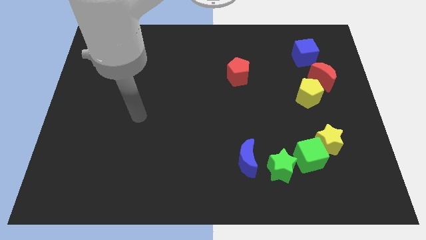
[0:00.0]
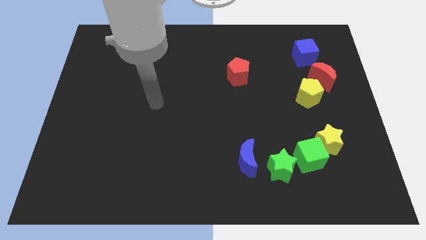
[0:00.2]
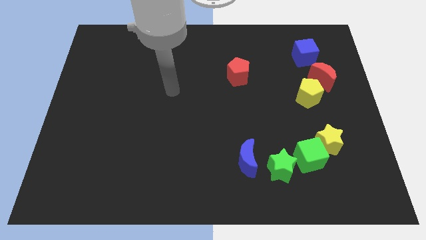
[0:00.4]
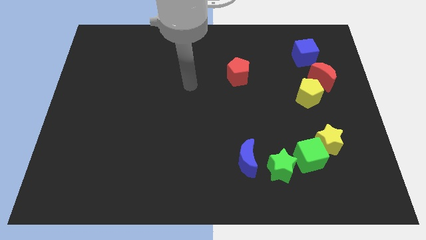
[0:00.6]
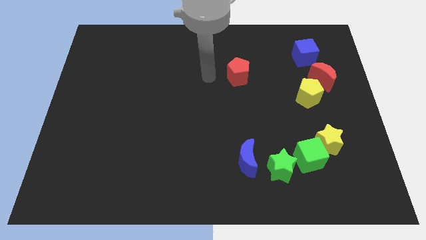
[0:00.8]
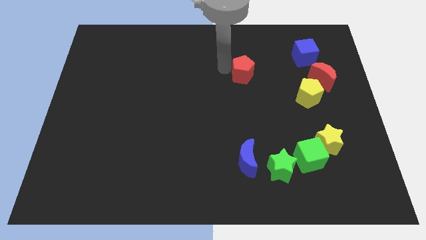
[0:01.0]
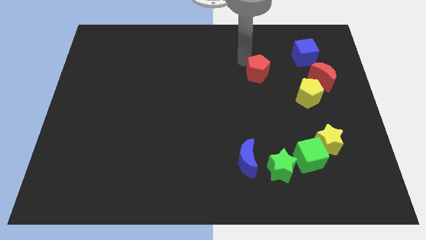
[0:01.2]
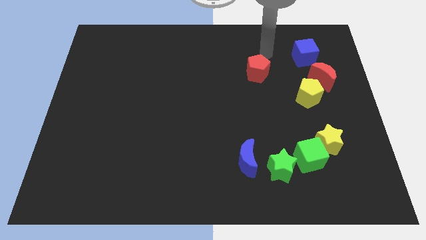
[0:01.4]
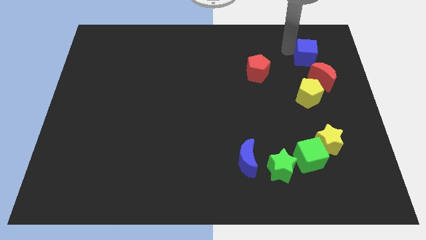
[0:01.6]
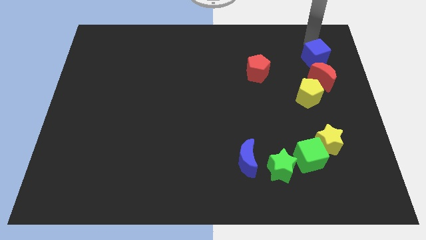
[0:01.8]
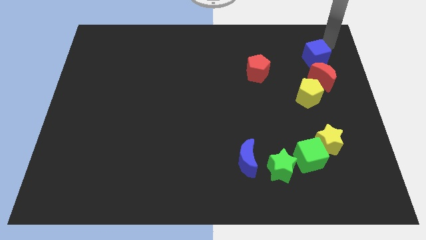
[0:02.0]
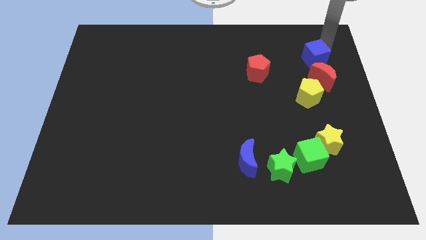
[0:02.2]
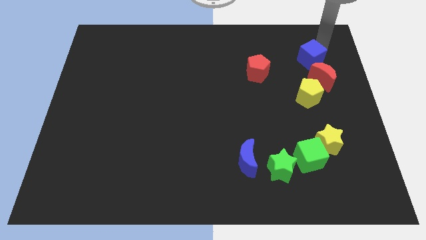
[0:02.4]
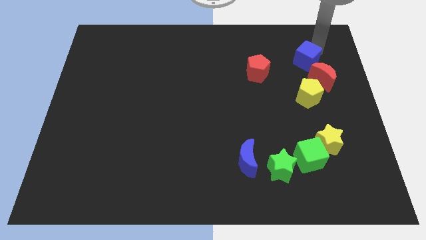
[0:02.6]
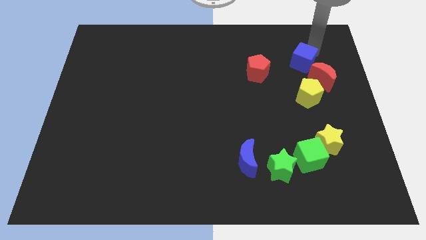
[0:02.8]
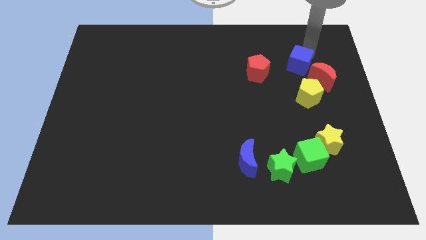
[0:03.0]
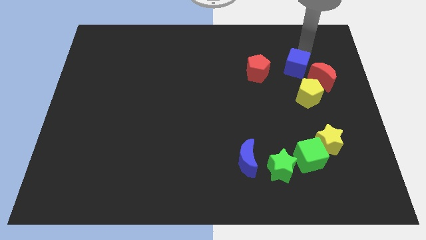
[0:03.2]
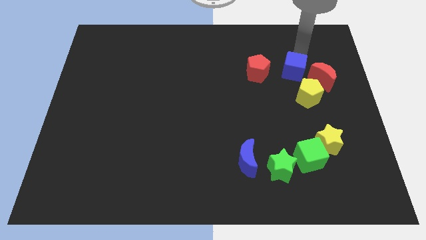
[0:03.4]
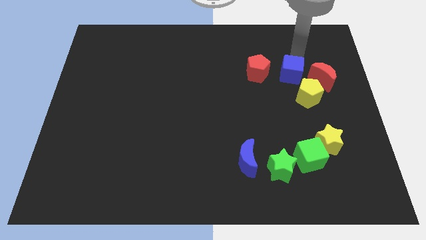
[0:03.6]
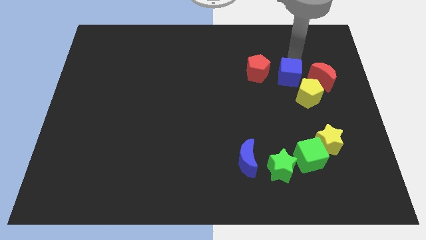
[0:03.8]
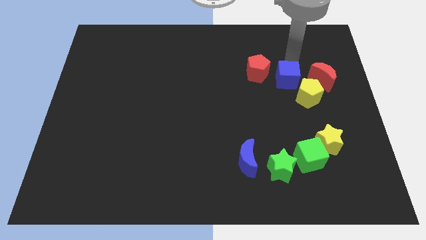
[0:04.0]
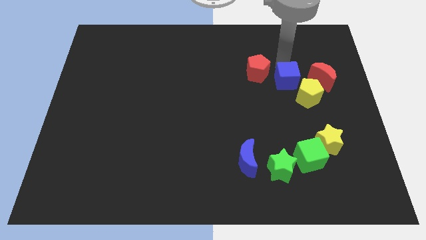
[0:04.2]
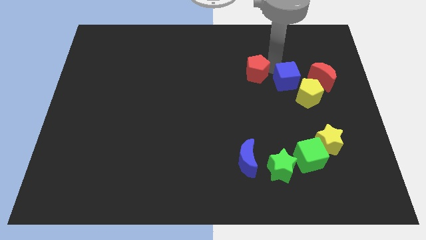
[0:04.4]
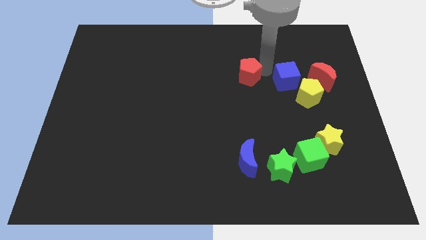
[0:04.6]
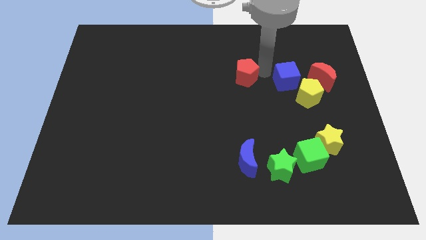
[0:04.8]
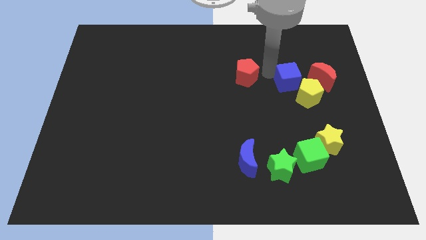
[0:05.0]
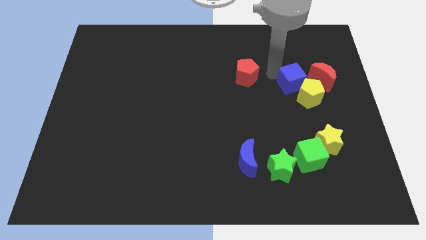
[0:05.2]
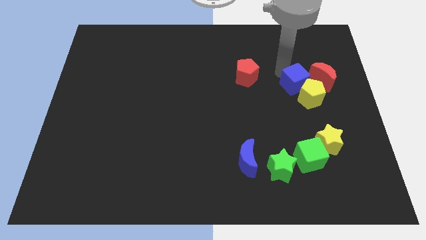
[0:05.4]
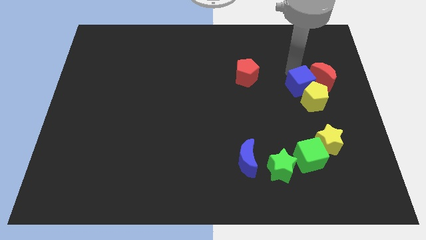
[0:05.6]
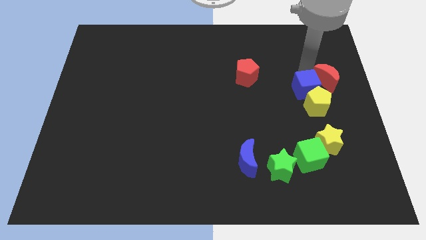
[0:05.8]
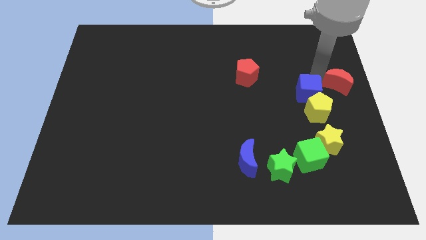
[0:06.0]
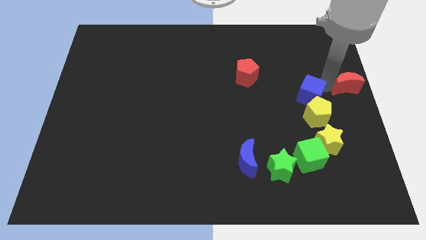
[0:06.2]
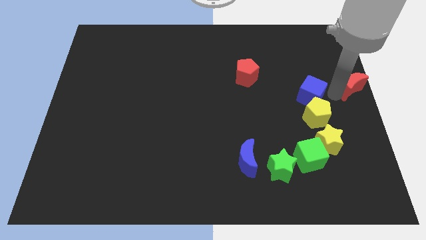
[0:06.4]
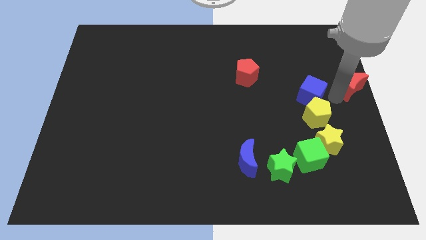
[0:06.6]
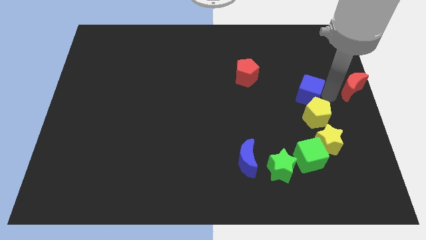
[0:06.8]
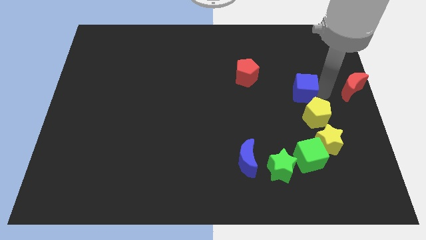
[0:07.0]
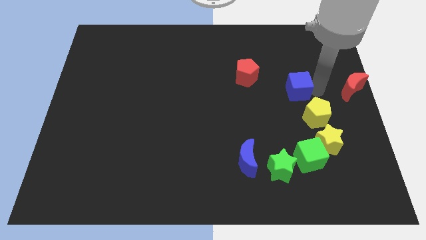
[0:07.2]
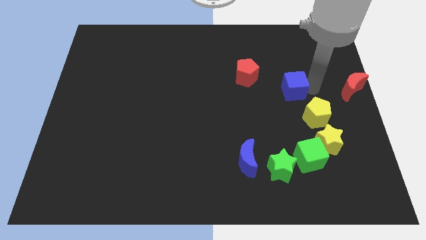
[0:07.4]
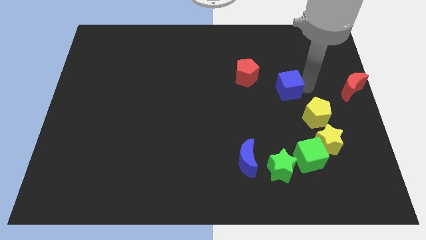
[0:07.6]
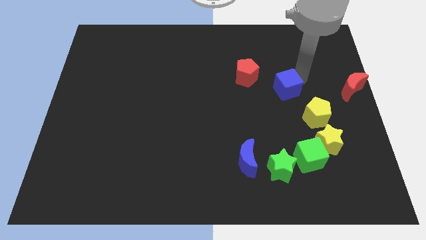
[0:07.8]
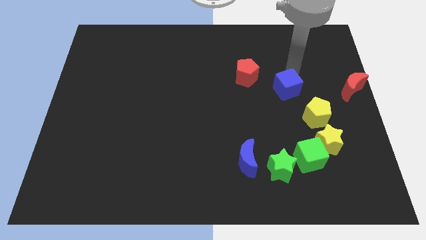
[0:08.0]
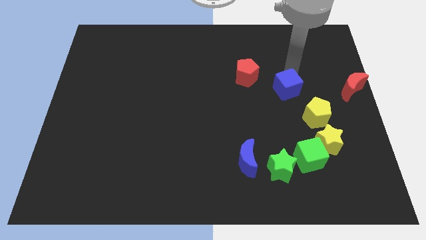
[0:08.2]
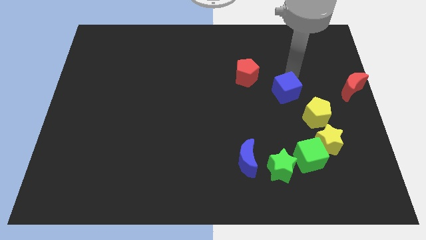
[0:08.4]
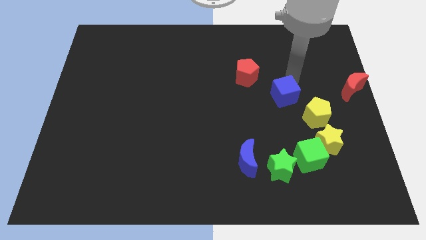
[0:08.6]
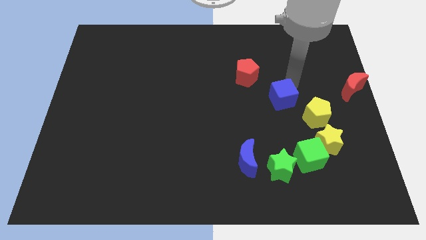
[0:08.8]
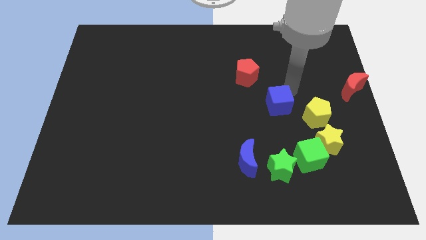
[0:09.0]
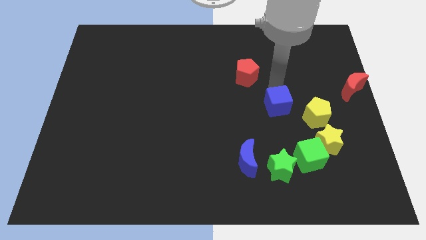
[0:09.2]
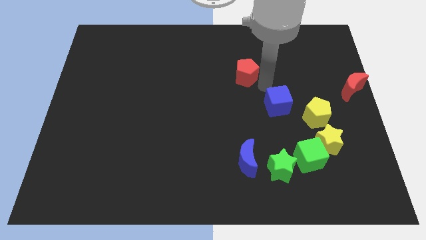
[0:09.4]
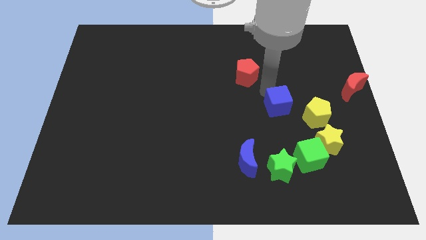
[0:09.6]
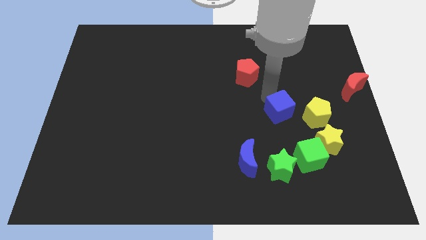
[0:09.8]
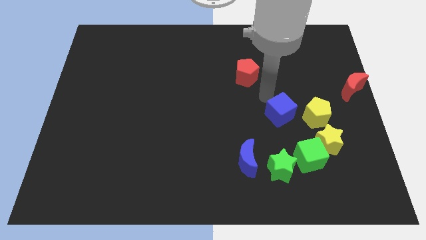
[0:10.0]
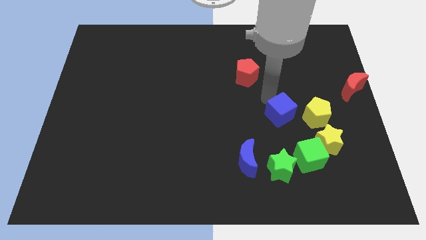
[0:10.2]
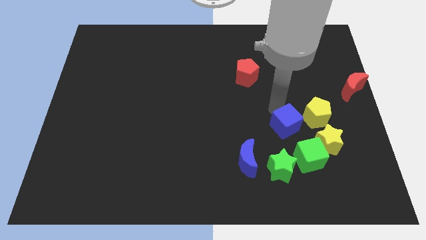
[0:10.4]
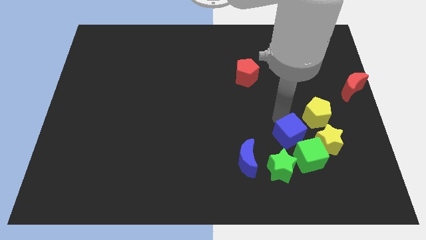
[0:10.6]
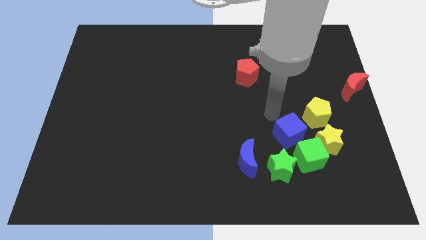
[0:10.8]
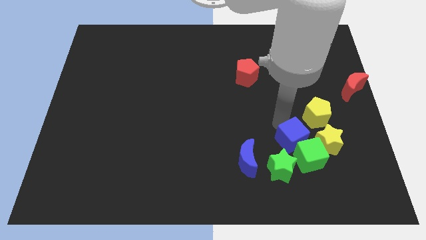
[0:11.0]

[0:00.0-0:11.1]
slide the blue cube close to the green cube

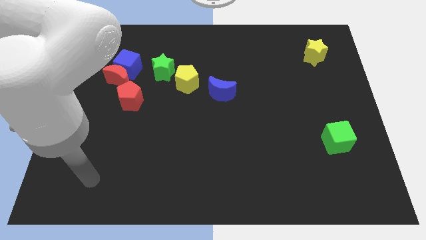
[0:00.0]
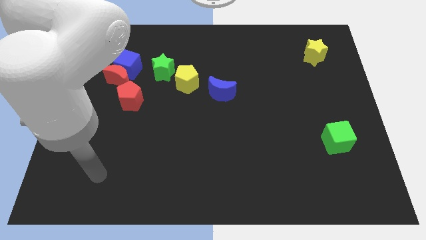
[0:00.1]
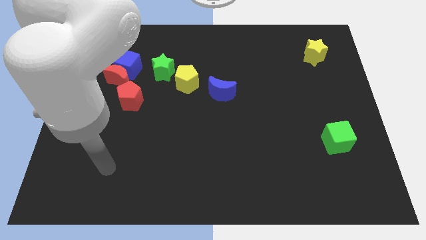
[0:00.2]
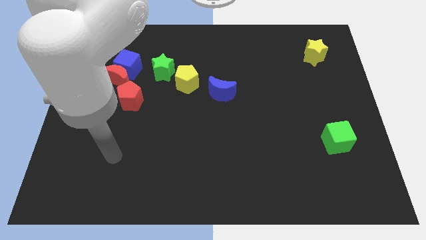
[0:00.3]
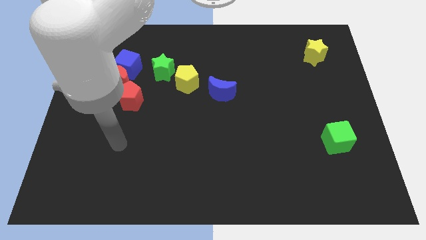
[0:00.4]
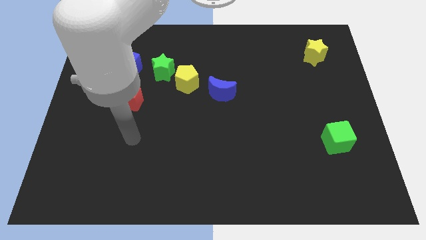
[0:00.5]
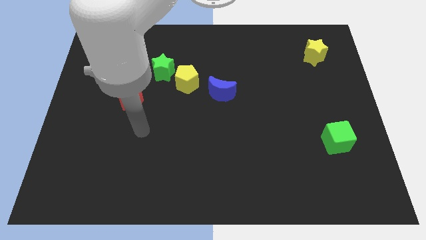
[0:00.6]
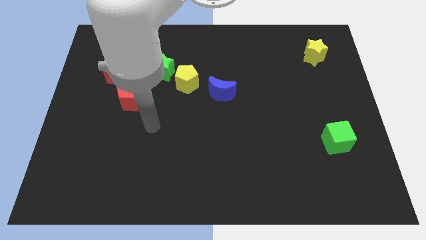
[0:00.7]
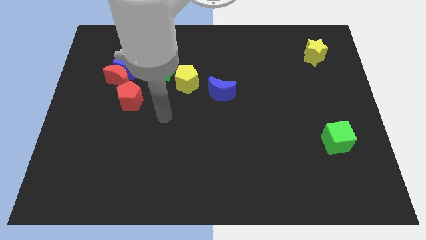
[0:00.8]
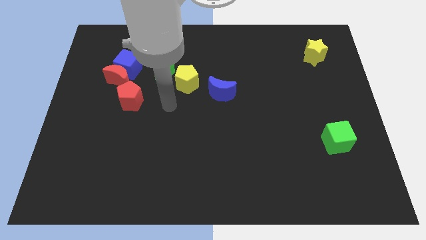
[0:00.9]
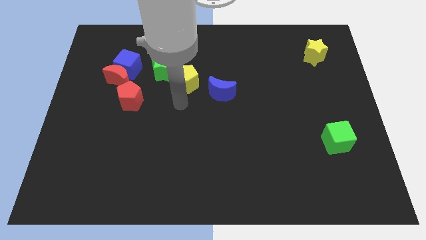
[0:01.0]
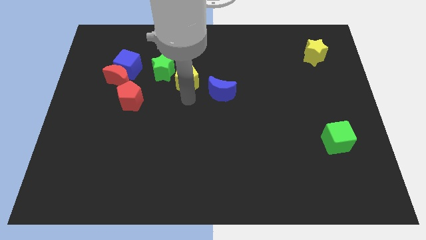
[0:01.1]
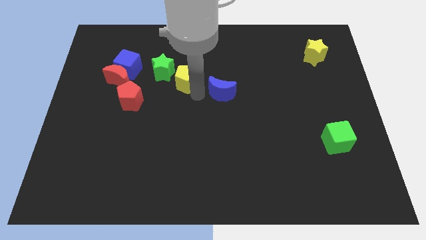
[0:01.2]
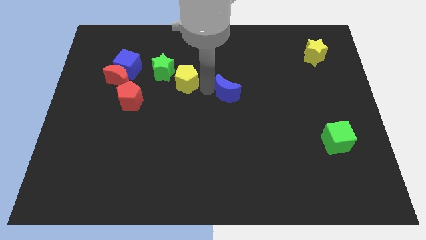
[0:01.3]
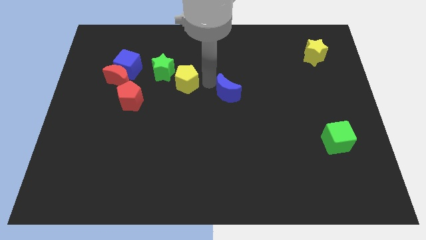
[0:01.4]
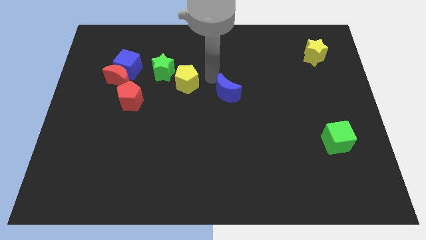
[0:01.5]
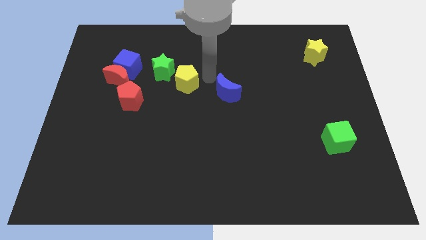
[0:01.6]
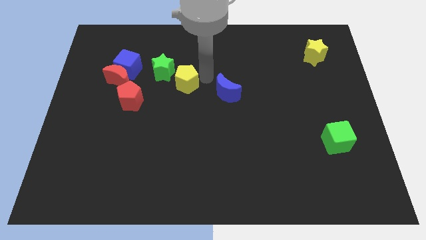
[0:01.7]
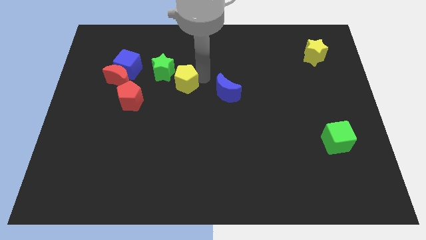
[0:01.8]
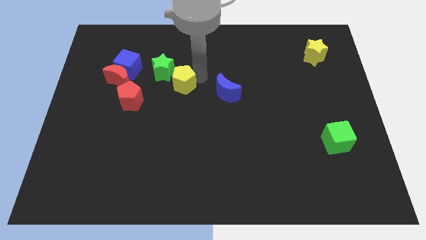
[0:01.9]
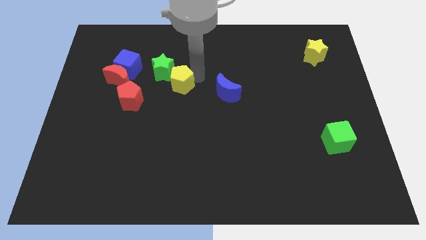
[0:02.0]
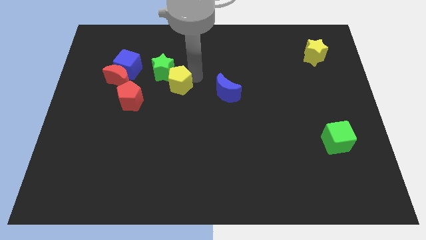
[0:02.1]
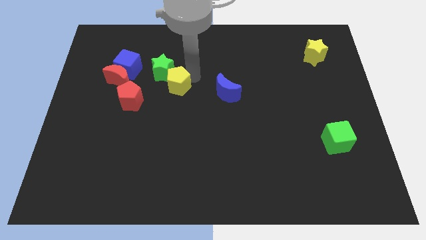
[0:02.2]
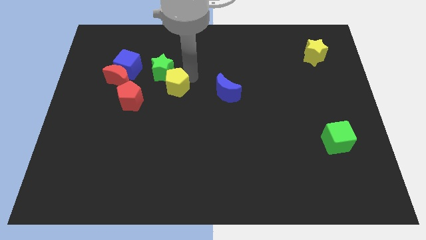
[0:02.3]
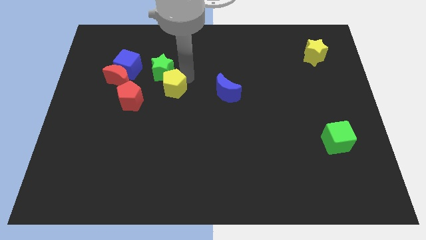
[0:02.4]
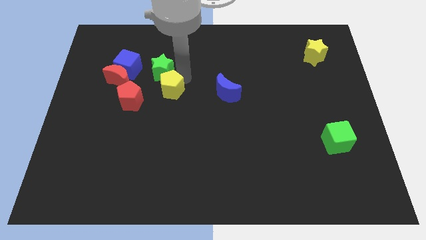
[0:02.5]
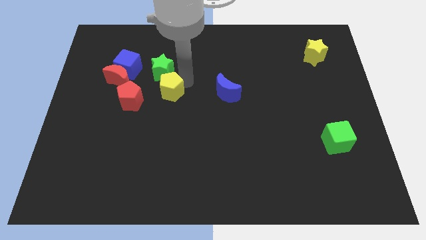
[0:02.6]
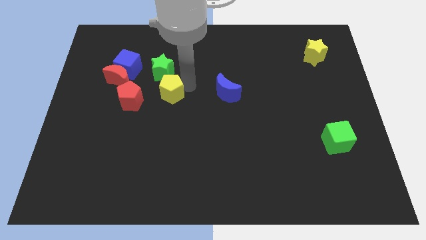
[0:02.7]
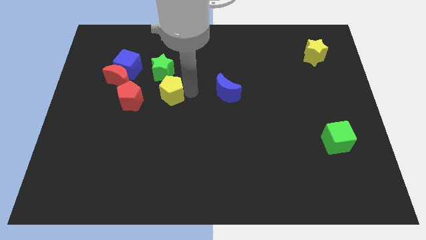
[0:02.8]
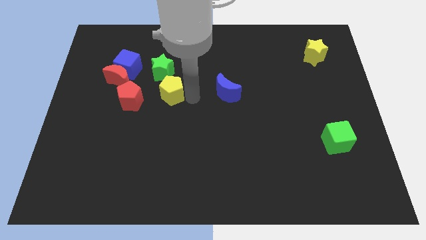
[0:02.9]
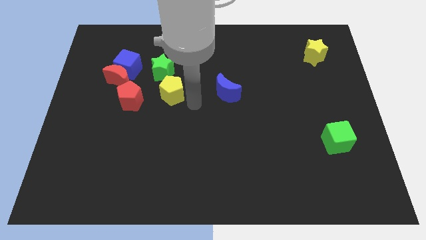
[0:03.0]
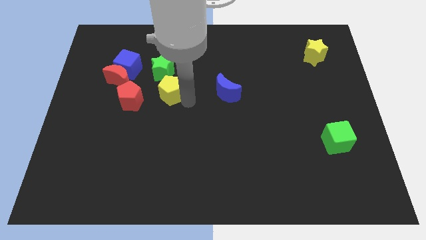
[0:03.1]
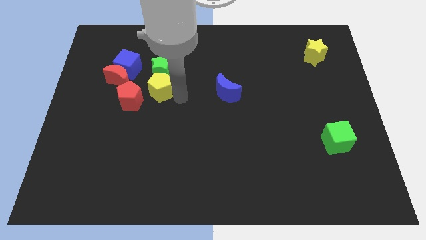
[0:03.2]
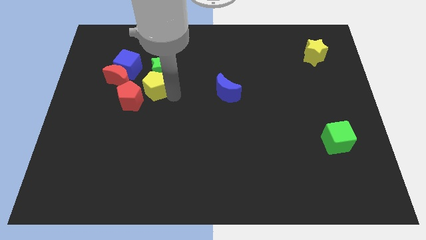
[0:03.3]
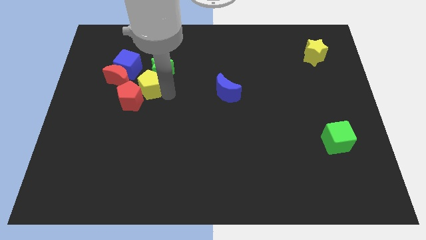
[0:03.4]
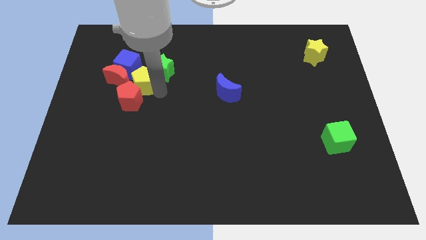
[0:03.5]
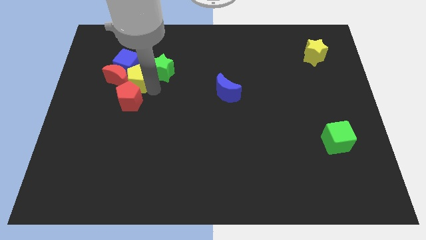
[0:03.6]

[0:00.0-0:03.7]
put the yellow pentagon towards the blue cube
